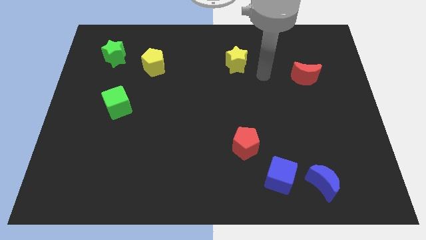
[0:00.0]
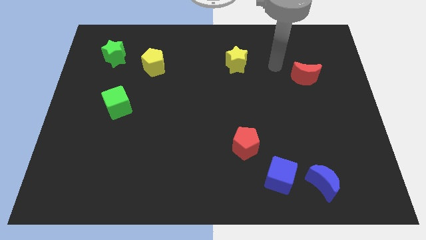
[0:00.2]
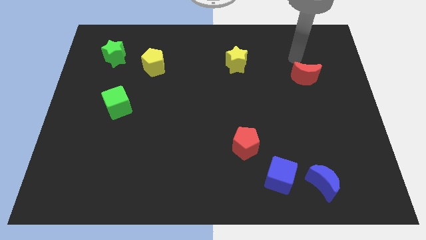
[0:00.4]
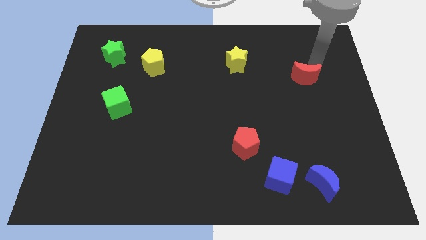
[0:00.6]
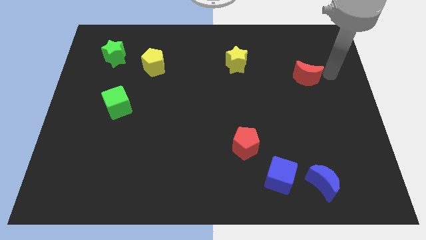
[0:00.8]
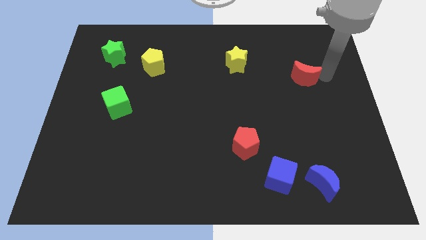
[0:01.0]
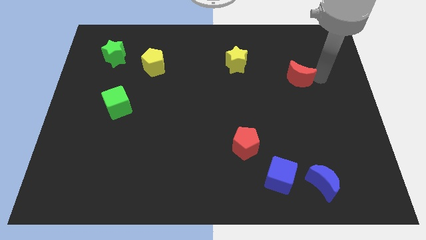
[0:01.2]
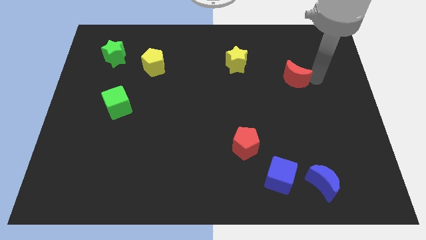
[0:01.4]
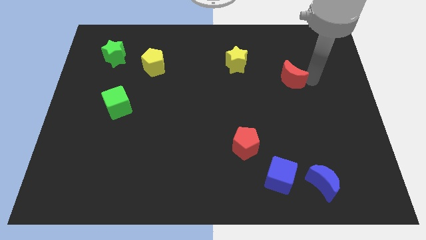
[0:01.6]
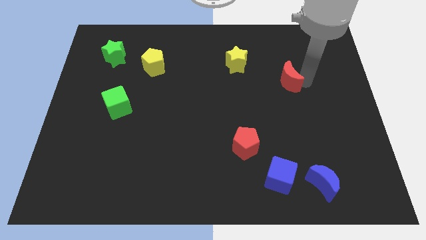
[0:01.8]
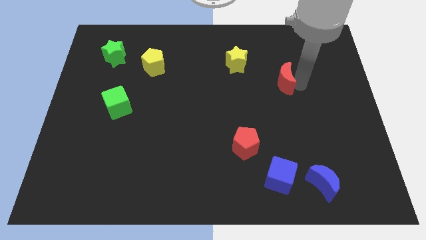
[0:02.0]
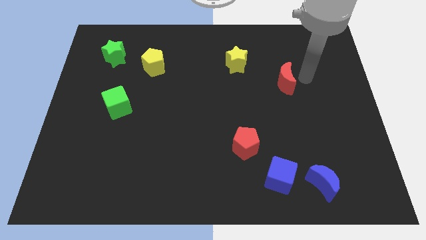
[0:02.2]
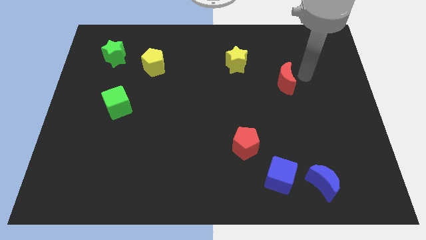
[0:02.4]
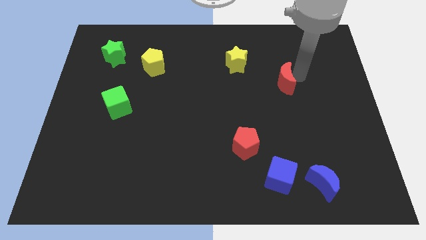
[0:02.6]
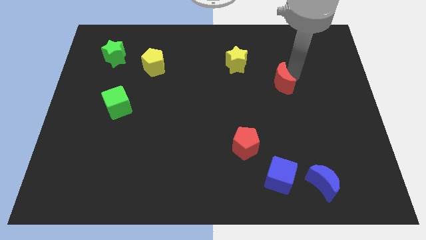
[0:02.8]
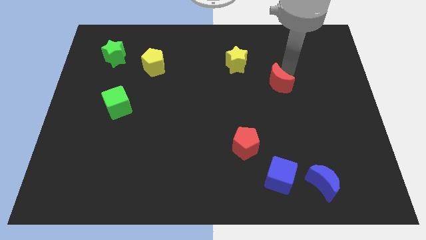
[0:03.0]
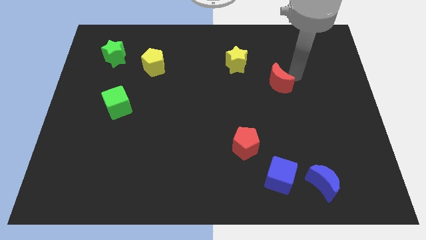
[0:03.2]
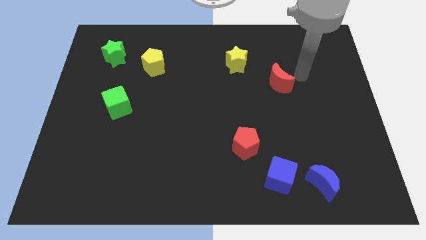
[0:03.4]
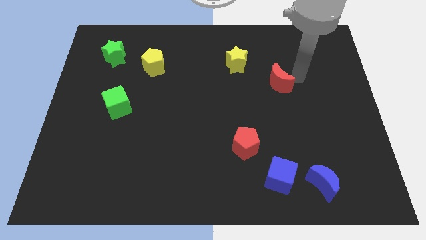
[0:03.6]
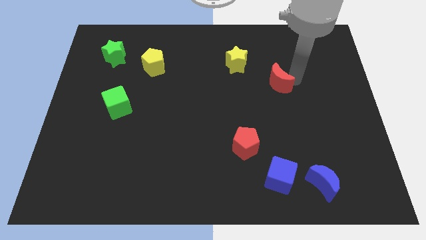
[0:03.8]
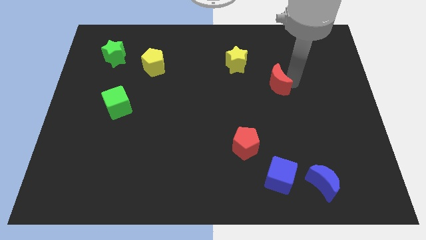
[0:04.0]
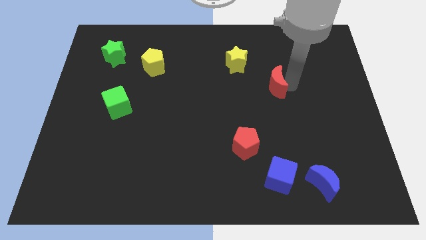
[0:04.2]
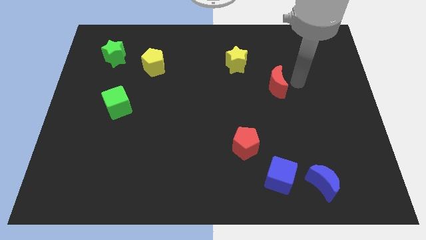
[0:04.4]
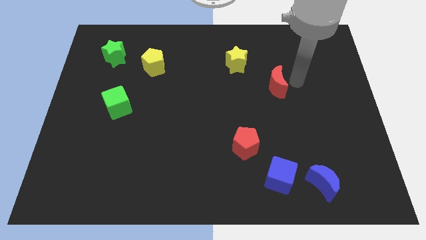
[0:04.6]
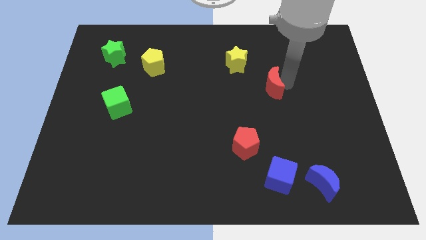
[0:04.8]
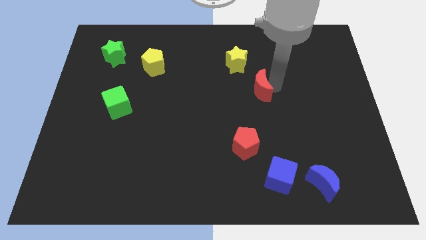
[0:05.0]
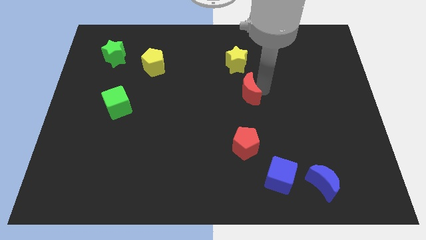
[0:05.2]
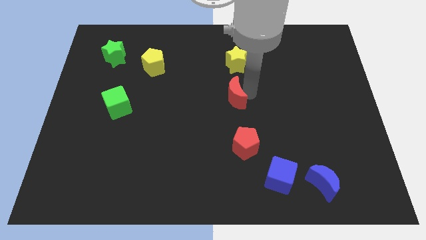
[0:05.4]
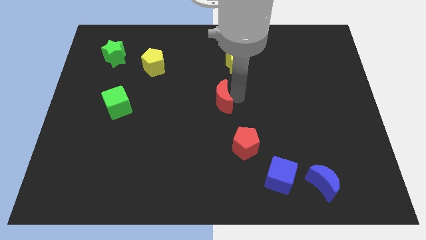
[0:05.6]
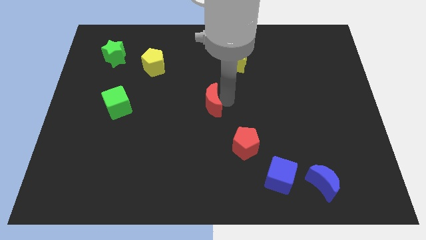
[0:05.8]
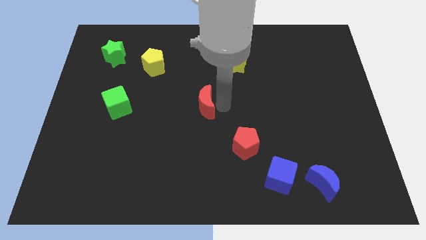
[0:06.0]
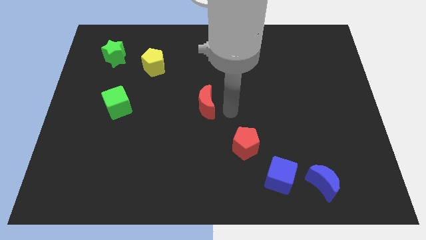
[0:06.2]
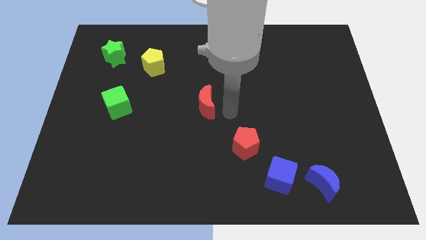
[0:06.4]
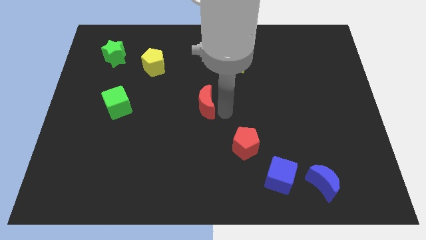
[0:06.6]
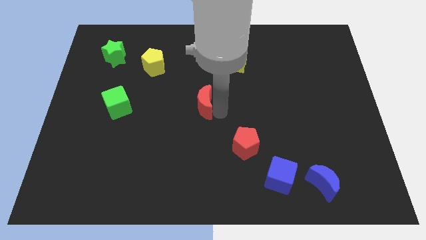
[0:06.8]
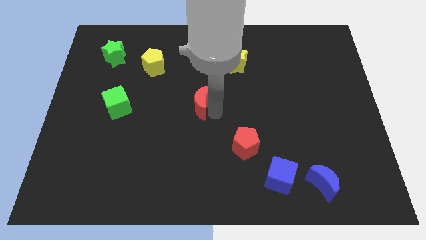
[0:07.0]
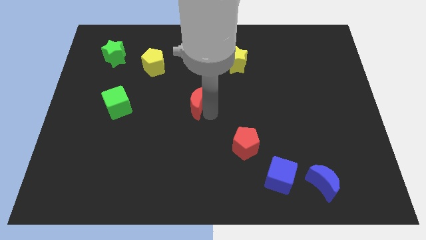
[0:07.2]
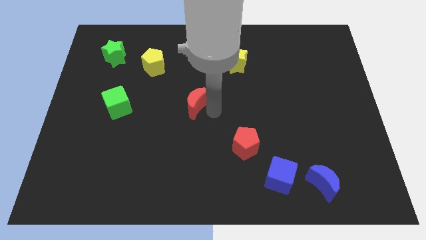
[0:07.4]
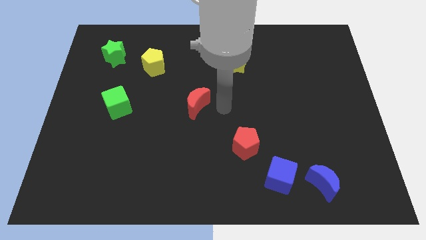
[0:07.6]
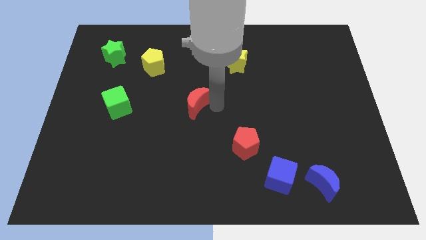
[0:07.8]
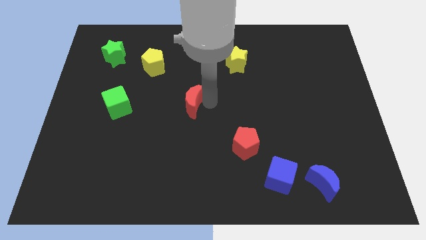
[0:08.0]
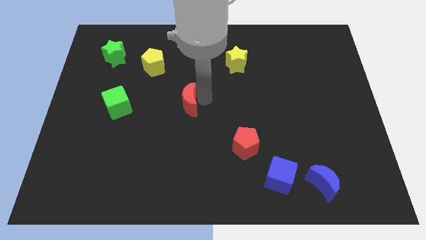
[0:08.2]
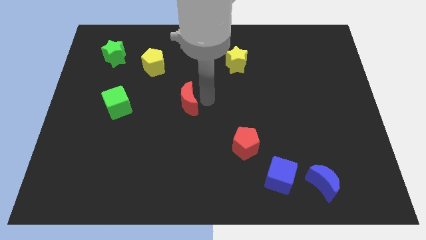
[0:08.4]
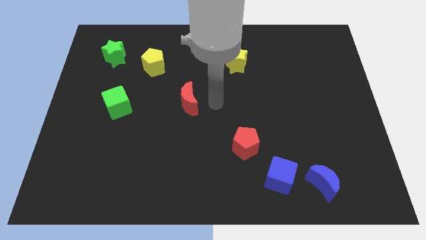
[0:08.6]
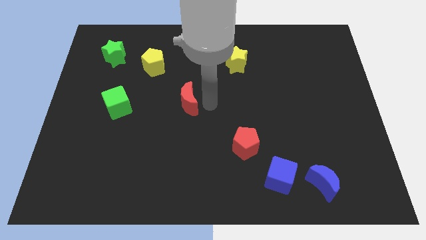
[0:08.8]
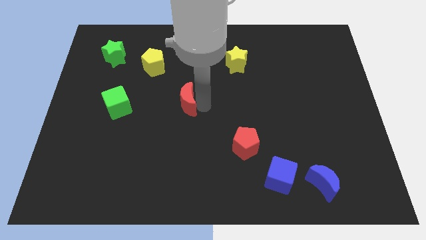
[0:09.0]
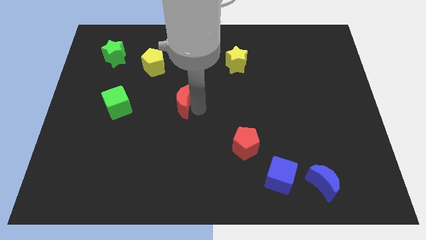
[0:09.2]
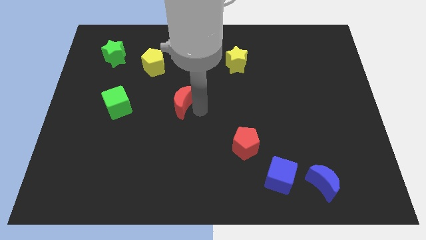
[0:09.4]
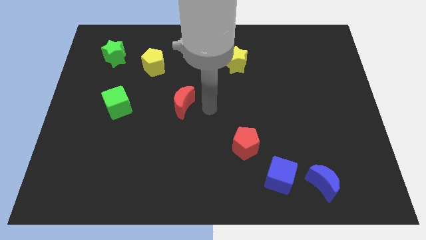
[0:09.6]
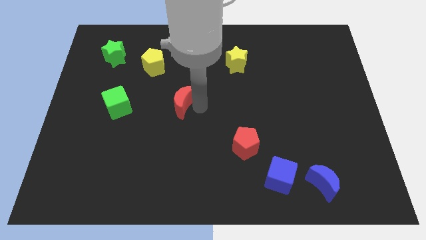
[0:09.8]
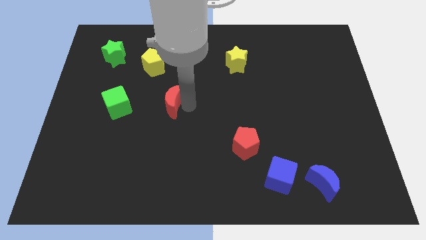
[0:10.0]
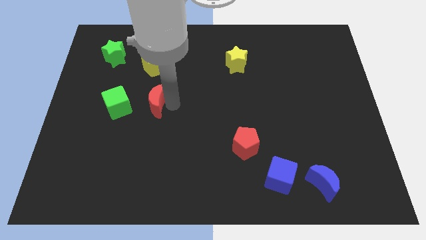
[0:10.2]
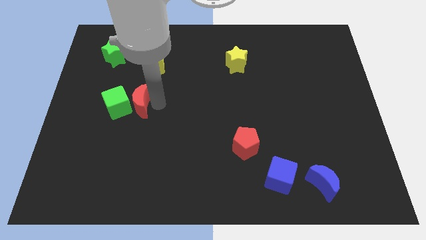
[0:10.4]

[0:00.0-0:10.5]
put the red moon to the green cube

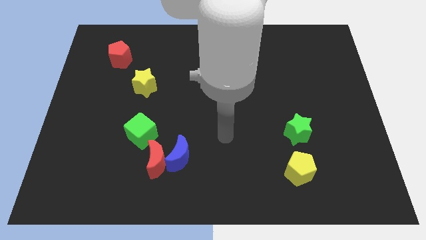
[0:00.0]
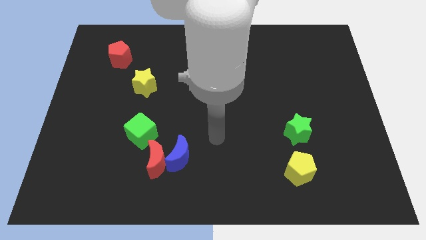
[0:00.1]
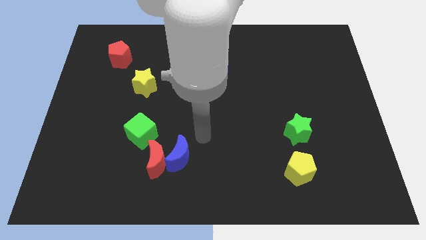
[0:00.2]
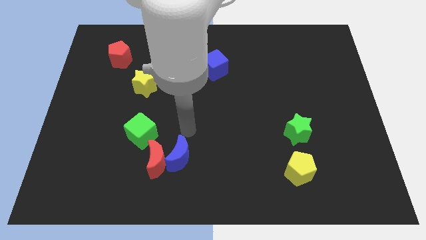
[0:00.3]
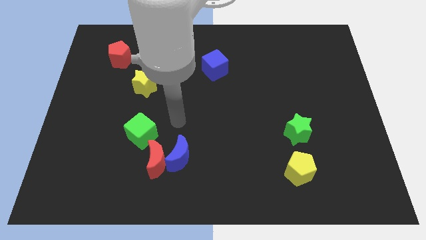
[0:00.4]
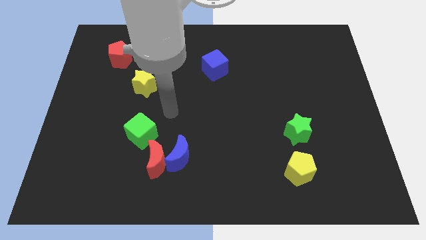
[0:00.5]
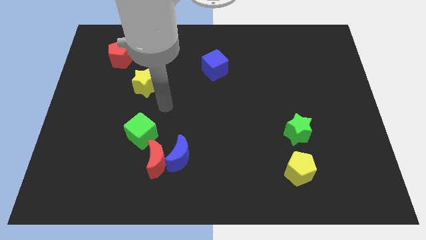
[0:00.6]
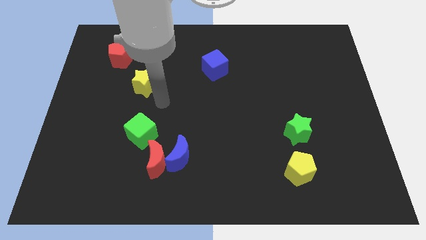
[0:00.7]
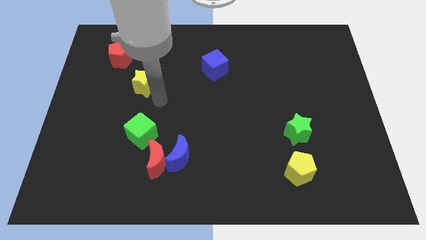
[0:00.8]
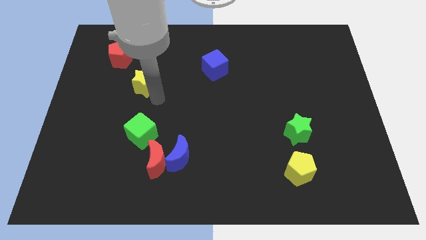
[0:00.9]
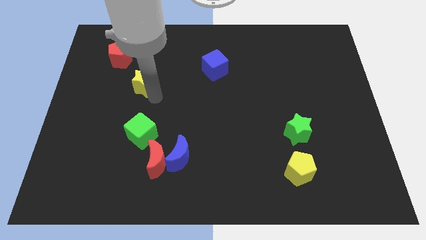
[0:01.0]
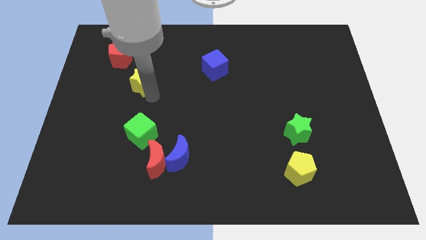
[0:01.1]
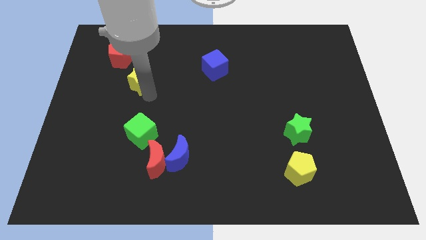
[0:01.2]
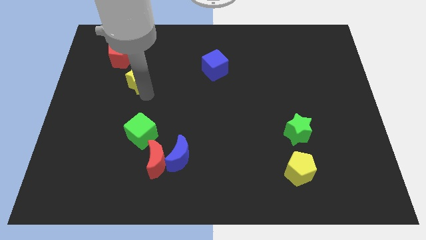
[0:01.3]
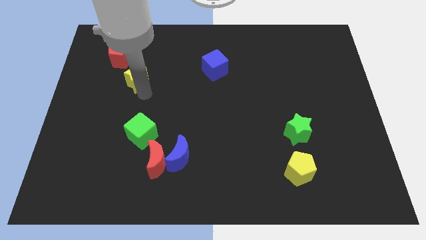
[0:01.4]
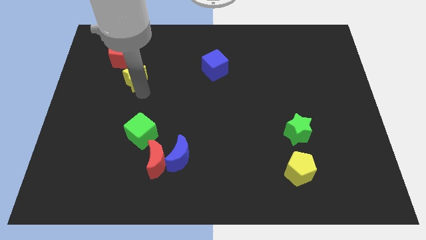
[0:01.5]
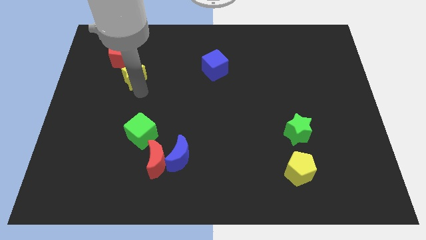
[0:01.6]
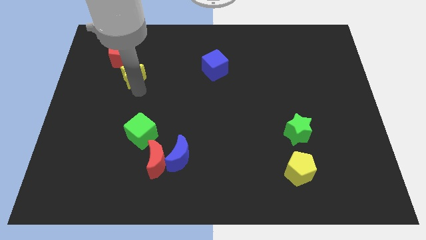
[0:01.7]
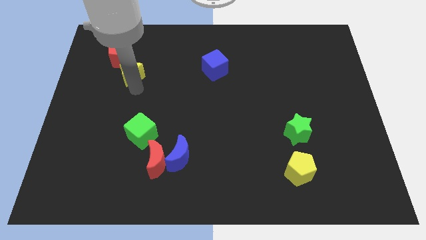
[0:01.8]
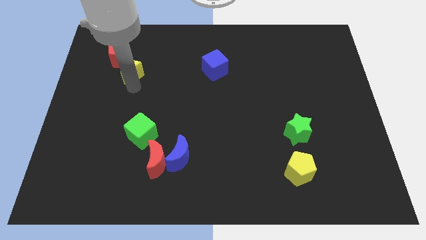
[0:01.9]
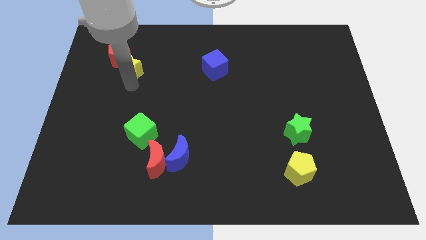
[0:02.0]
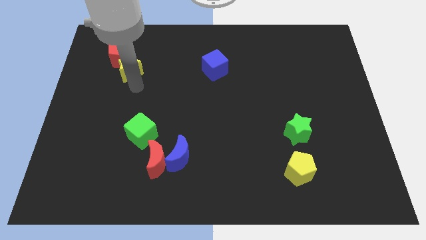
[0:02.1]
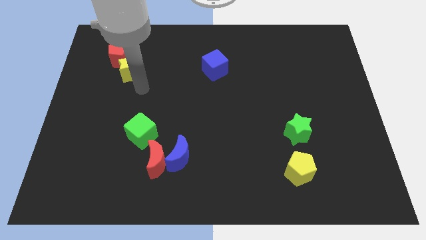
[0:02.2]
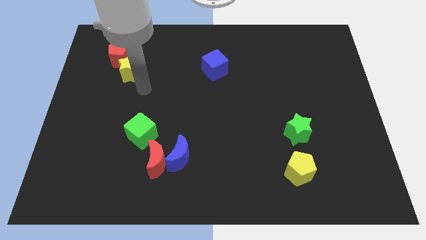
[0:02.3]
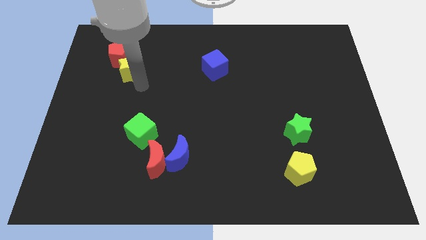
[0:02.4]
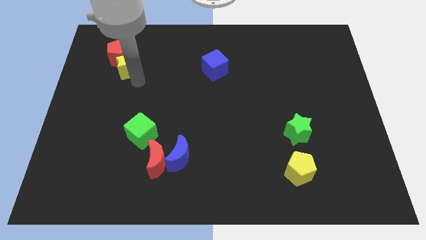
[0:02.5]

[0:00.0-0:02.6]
move the yellow star to the red pentagon
